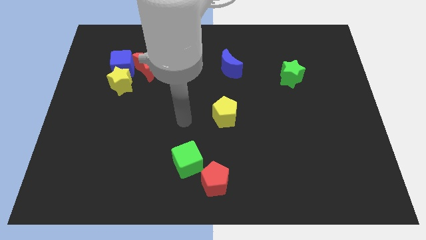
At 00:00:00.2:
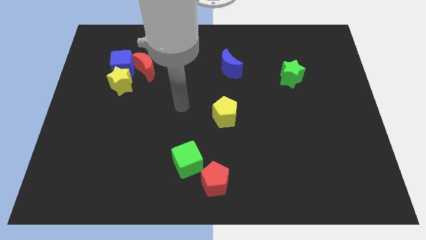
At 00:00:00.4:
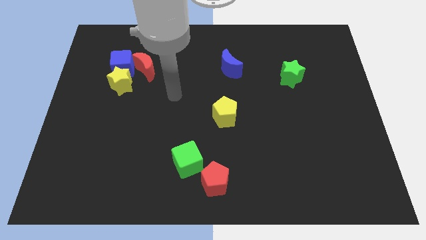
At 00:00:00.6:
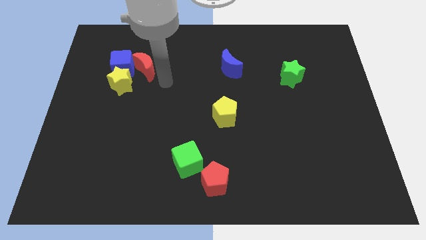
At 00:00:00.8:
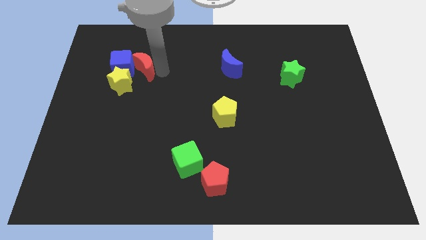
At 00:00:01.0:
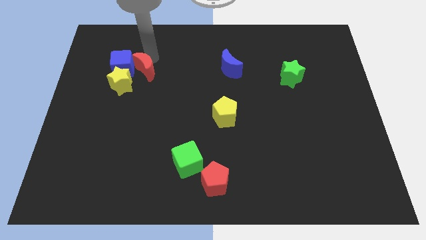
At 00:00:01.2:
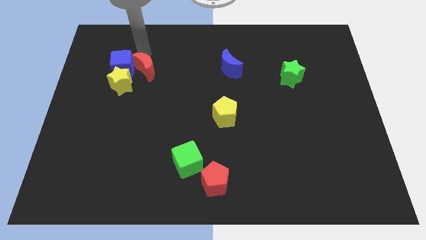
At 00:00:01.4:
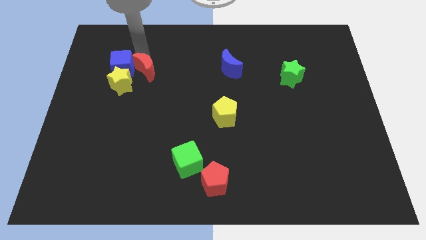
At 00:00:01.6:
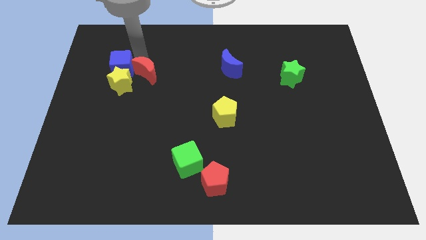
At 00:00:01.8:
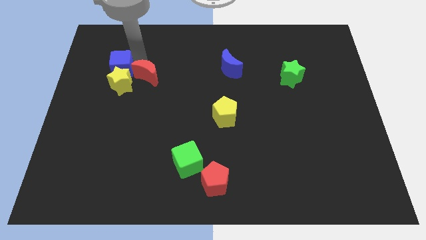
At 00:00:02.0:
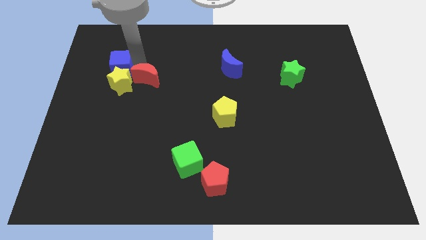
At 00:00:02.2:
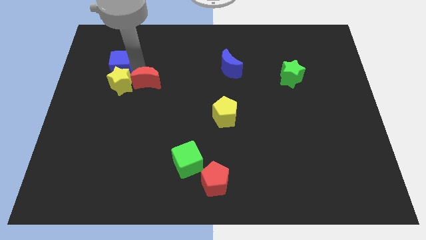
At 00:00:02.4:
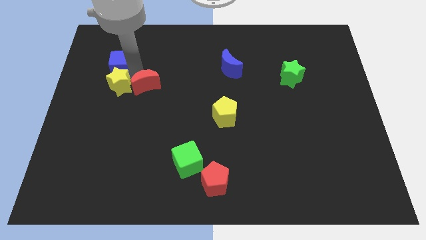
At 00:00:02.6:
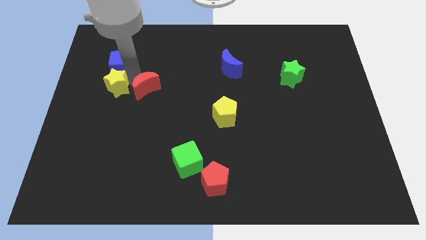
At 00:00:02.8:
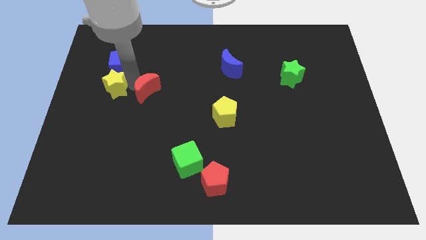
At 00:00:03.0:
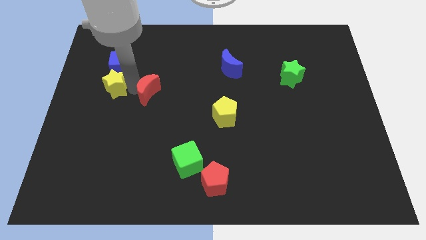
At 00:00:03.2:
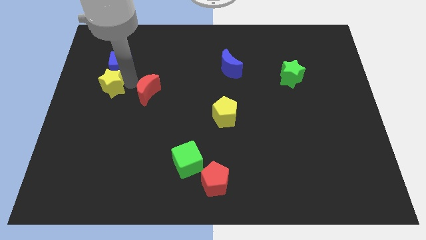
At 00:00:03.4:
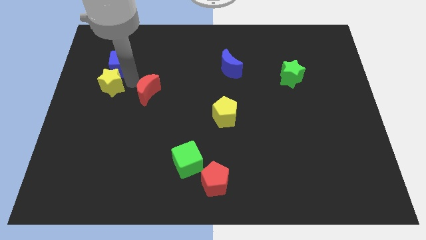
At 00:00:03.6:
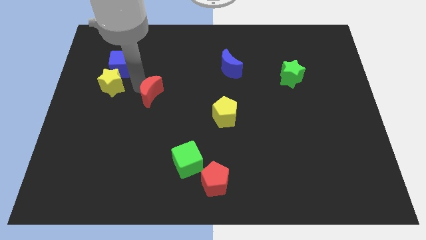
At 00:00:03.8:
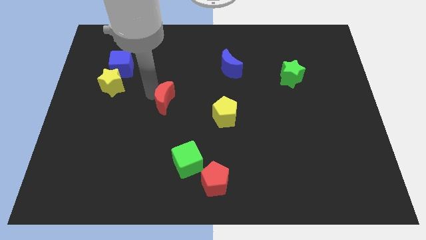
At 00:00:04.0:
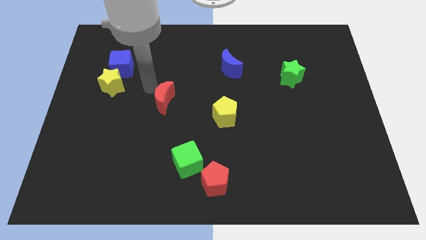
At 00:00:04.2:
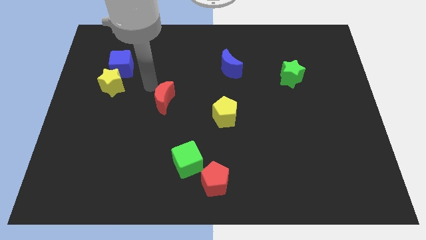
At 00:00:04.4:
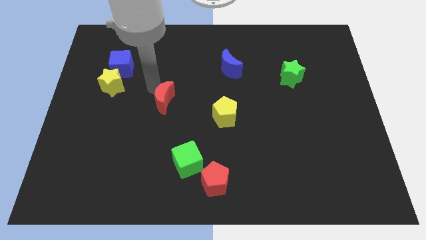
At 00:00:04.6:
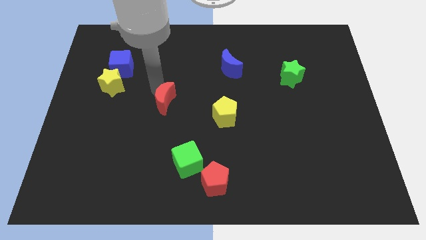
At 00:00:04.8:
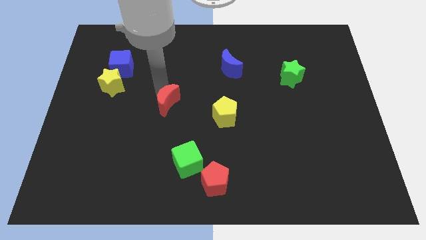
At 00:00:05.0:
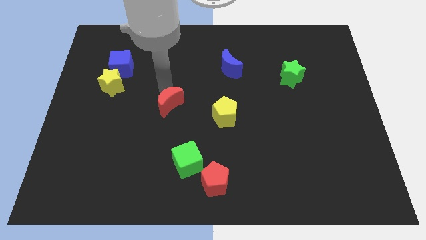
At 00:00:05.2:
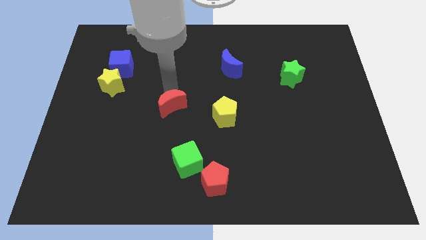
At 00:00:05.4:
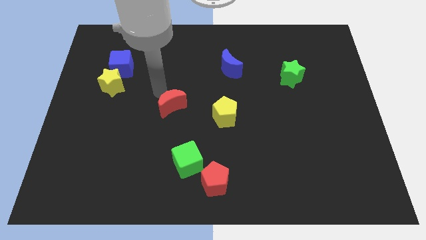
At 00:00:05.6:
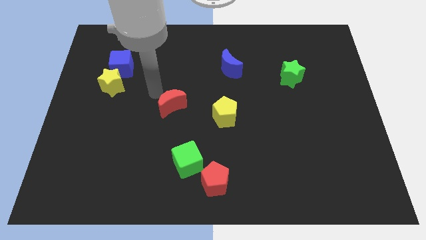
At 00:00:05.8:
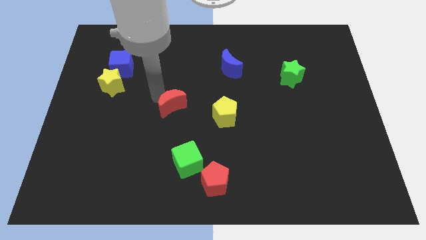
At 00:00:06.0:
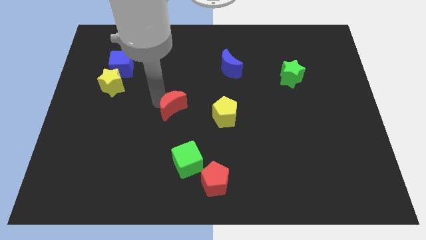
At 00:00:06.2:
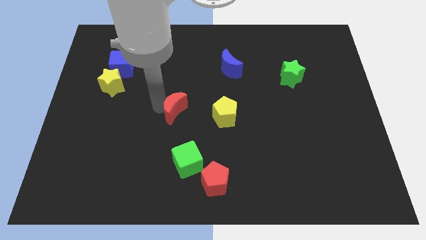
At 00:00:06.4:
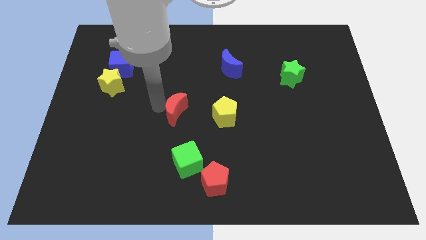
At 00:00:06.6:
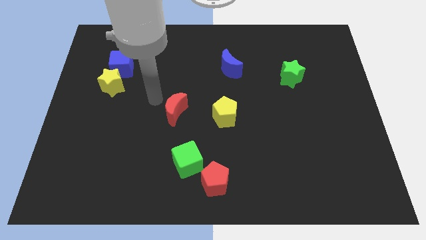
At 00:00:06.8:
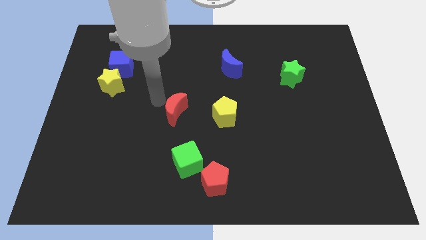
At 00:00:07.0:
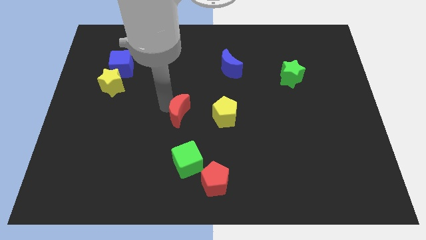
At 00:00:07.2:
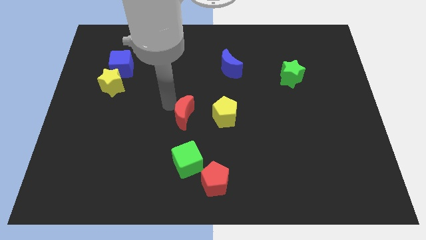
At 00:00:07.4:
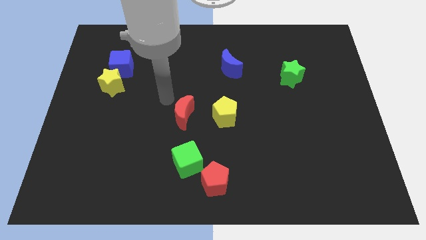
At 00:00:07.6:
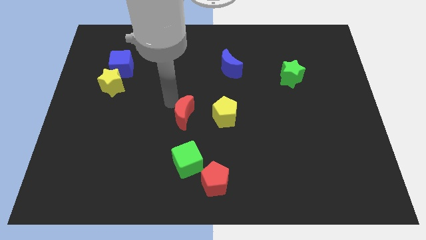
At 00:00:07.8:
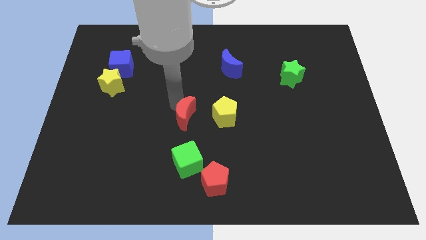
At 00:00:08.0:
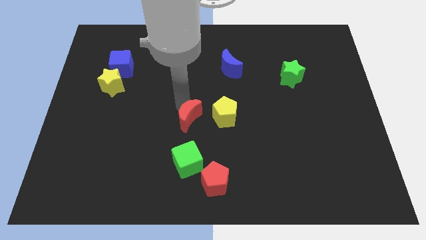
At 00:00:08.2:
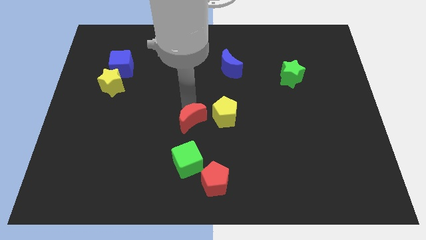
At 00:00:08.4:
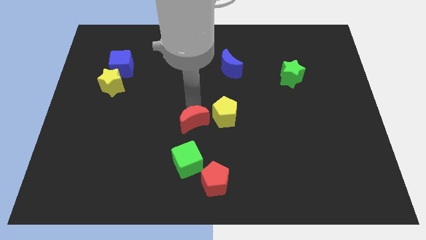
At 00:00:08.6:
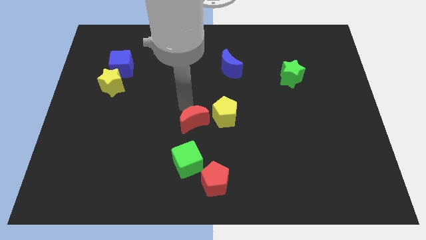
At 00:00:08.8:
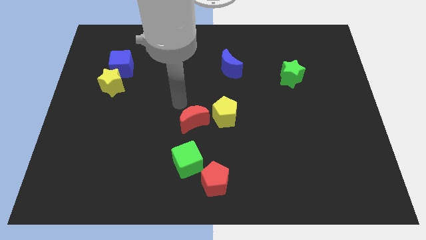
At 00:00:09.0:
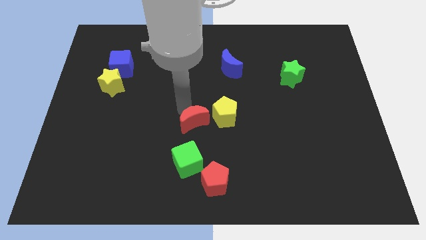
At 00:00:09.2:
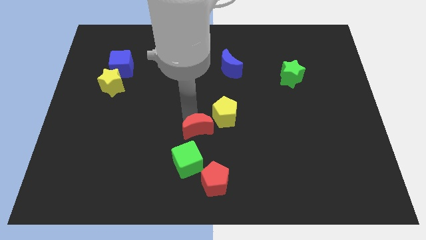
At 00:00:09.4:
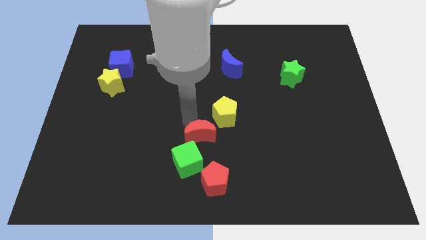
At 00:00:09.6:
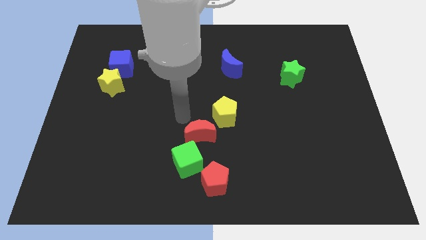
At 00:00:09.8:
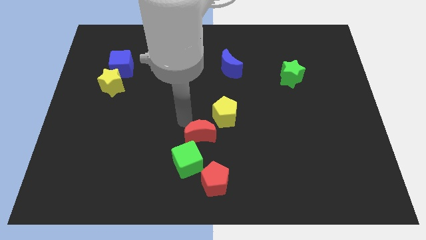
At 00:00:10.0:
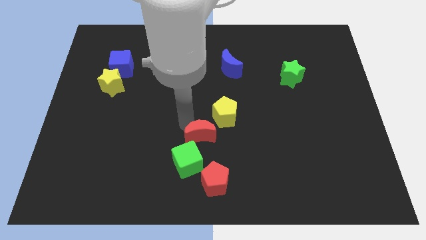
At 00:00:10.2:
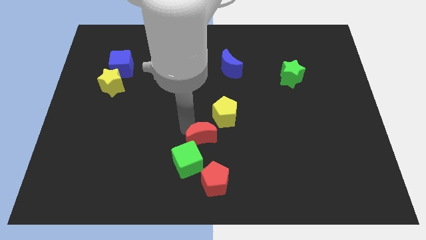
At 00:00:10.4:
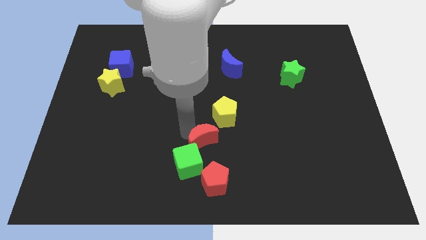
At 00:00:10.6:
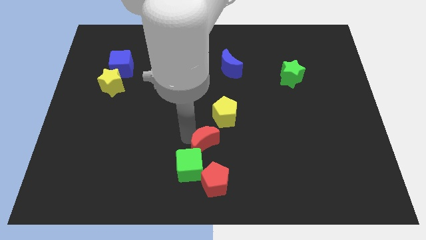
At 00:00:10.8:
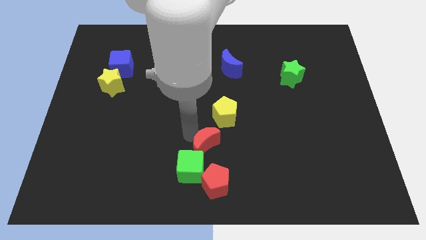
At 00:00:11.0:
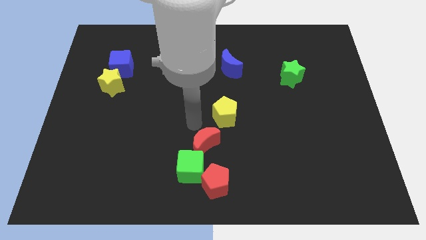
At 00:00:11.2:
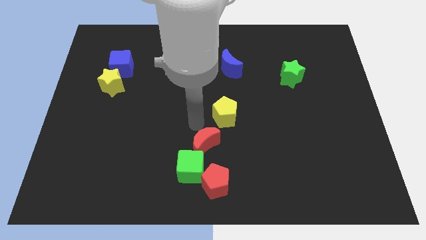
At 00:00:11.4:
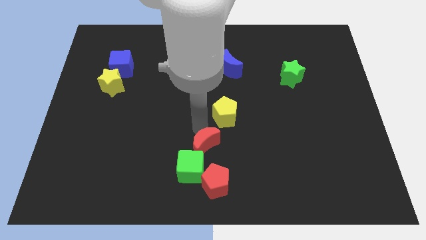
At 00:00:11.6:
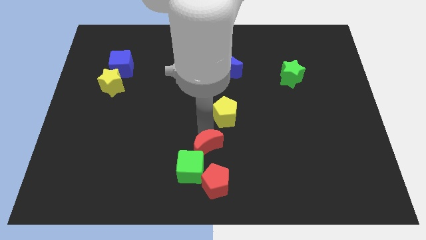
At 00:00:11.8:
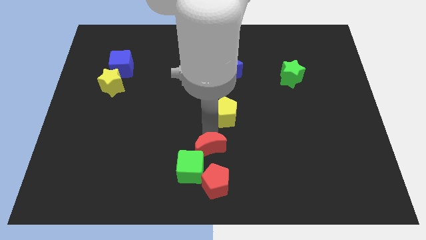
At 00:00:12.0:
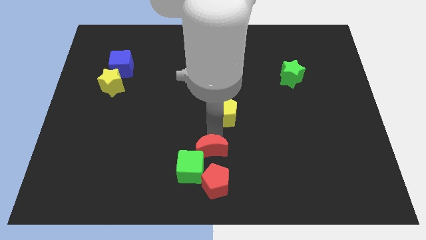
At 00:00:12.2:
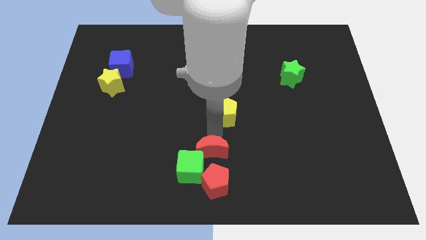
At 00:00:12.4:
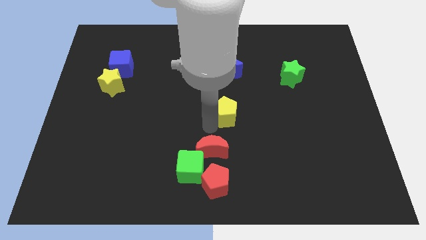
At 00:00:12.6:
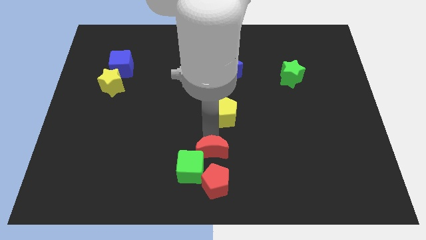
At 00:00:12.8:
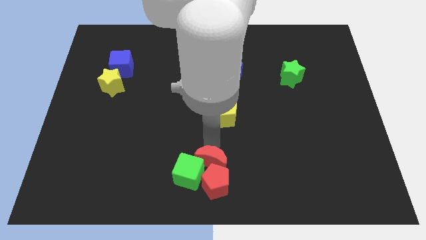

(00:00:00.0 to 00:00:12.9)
push the red moon towards the red pentagon
